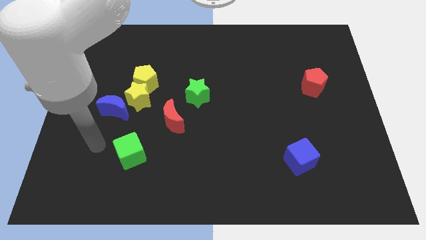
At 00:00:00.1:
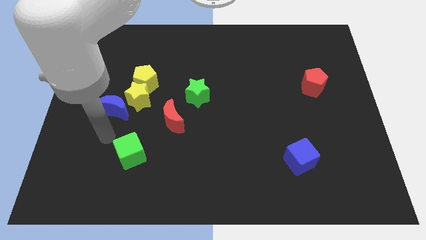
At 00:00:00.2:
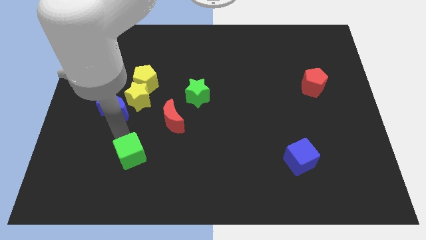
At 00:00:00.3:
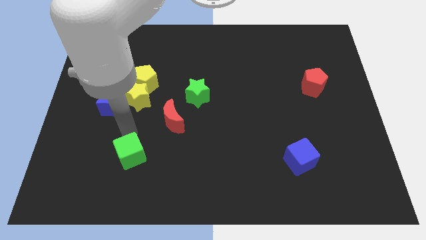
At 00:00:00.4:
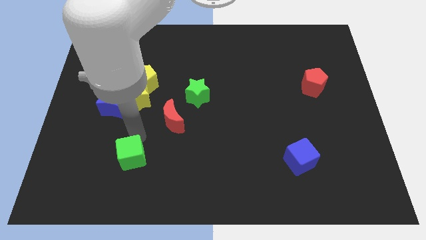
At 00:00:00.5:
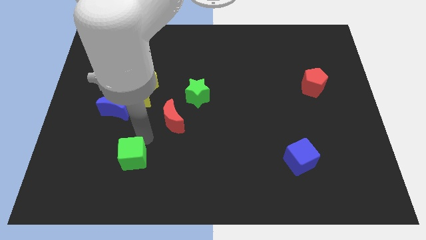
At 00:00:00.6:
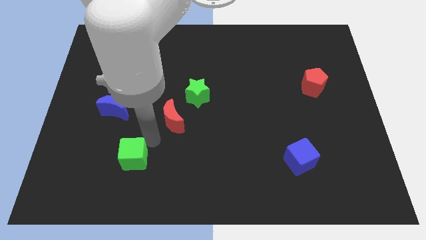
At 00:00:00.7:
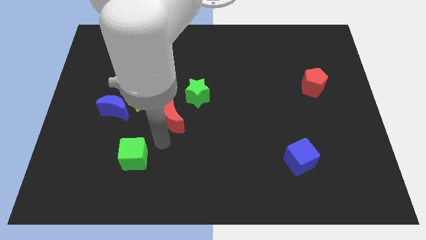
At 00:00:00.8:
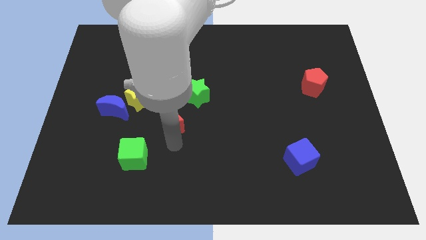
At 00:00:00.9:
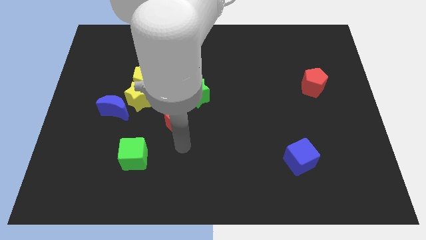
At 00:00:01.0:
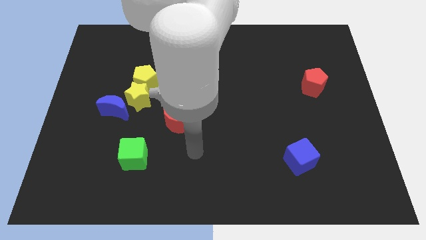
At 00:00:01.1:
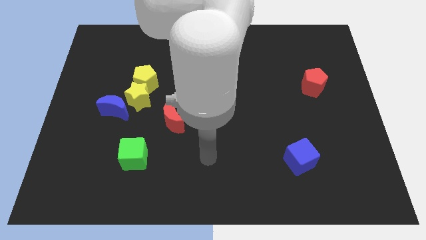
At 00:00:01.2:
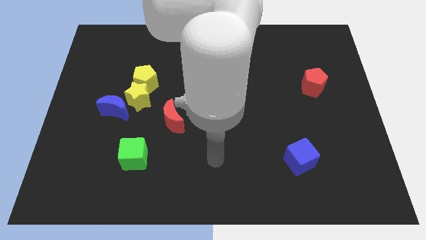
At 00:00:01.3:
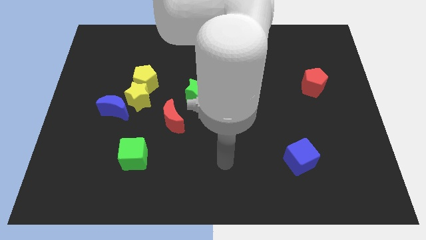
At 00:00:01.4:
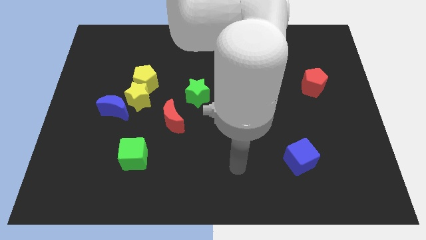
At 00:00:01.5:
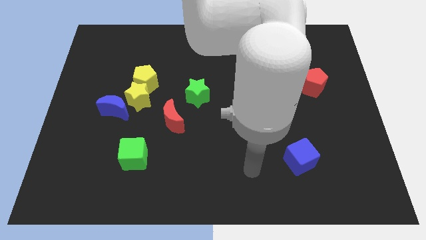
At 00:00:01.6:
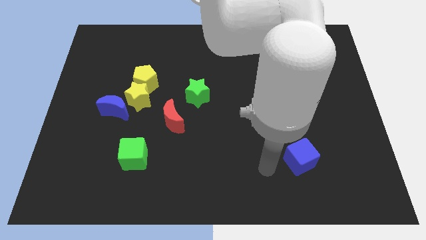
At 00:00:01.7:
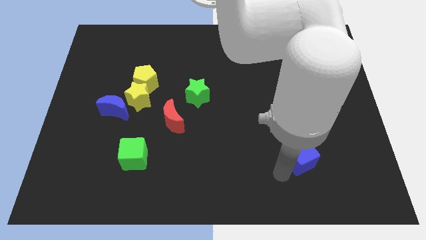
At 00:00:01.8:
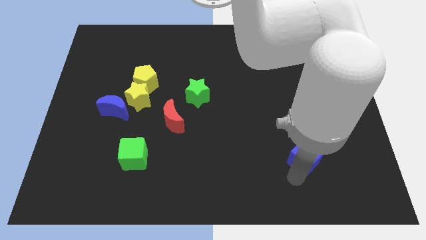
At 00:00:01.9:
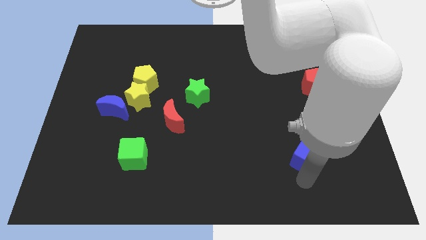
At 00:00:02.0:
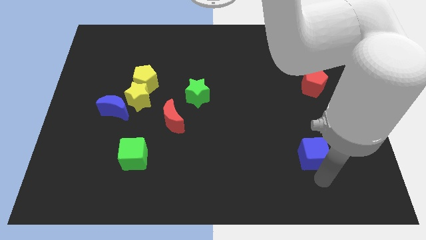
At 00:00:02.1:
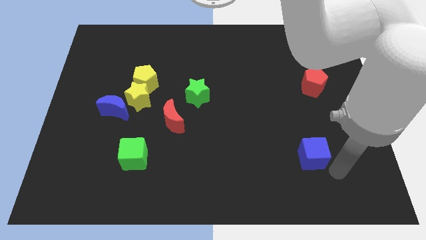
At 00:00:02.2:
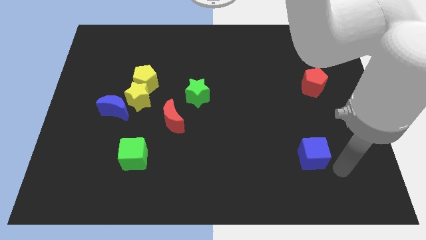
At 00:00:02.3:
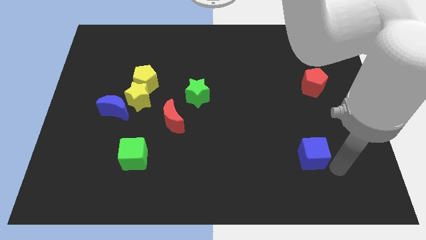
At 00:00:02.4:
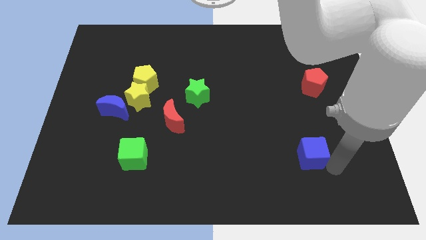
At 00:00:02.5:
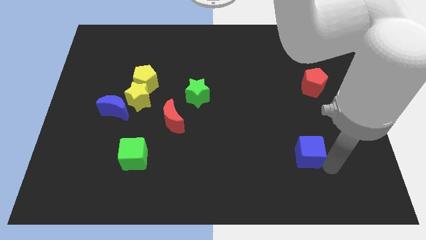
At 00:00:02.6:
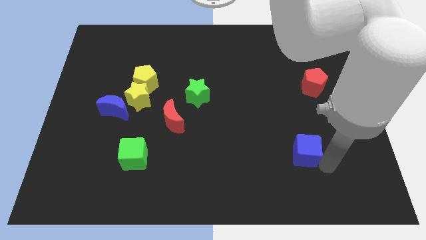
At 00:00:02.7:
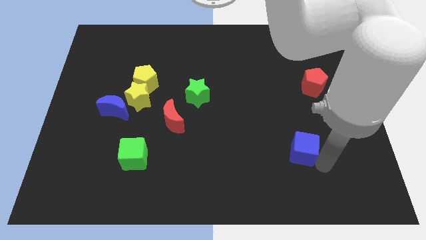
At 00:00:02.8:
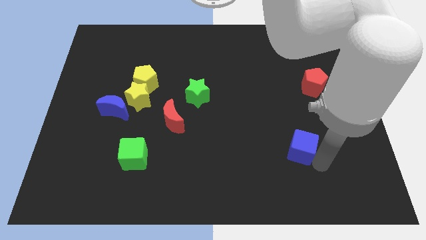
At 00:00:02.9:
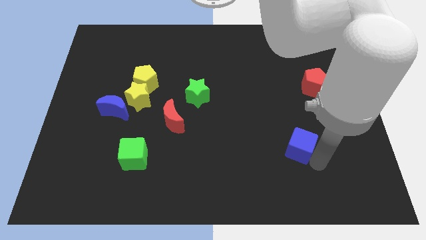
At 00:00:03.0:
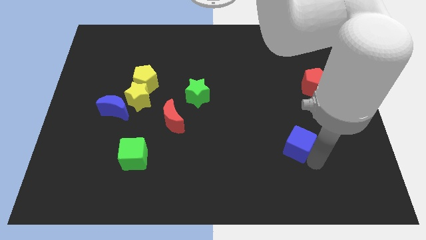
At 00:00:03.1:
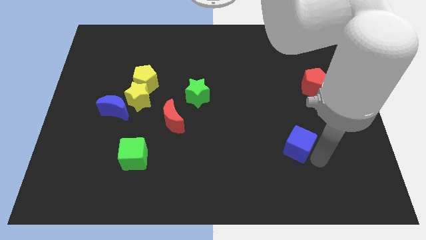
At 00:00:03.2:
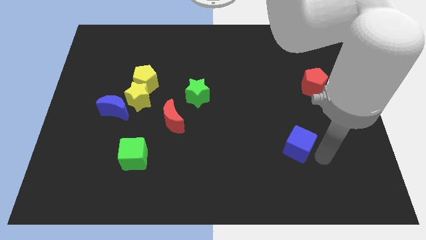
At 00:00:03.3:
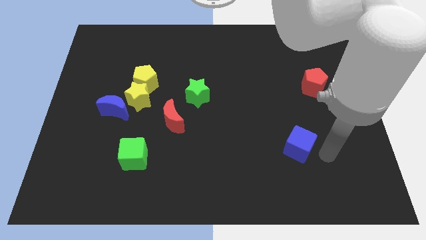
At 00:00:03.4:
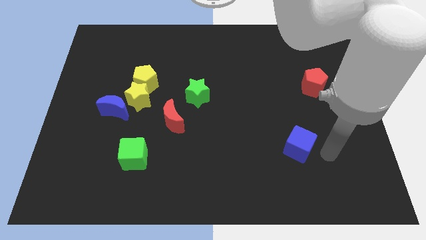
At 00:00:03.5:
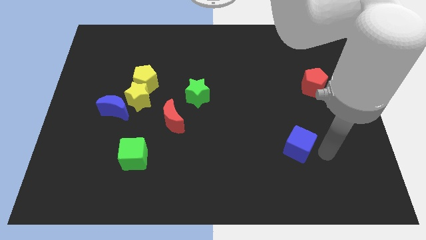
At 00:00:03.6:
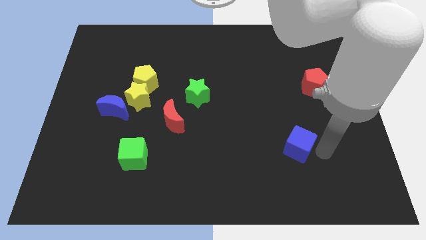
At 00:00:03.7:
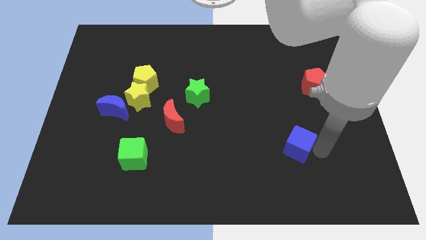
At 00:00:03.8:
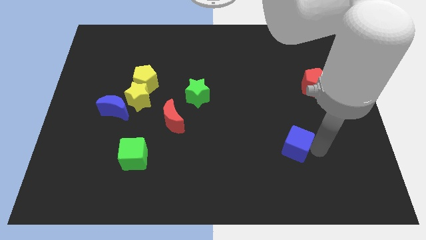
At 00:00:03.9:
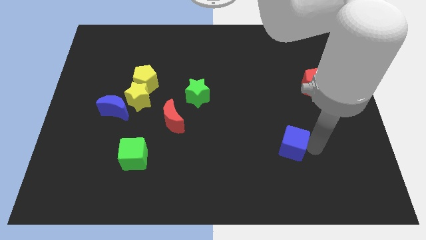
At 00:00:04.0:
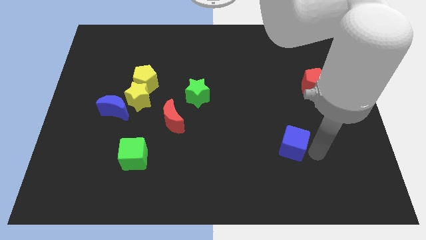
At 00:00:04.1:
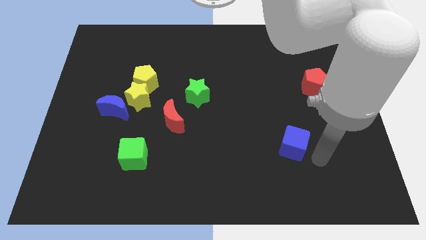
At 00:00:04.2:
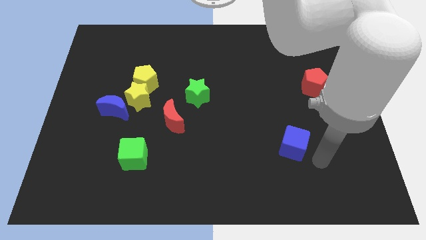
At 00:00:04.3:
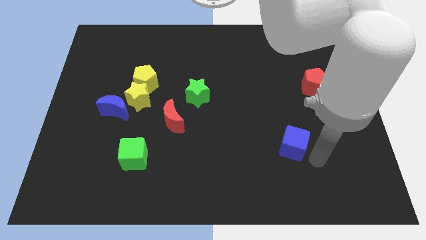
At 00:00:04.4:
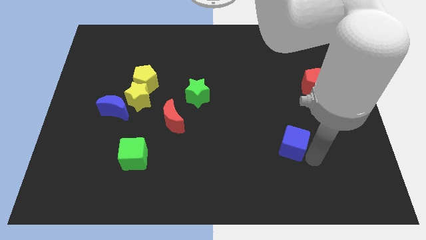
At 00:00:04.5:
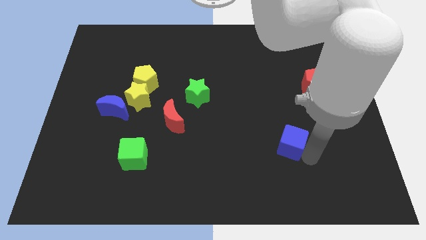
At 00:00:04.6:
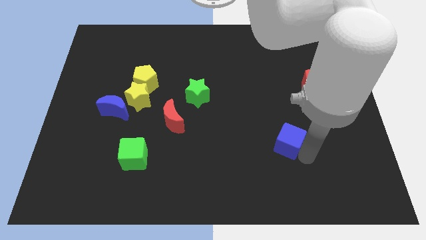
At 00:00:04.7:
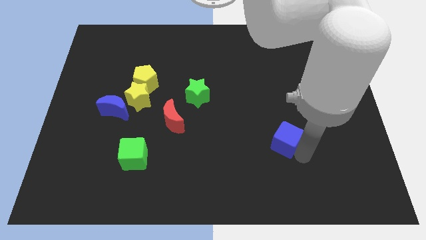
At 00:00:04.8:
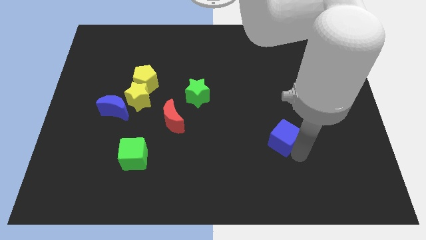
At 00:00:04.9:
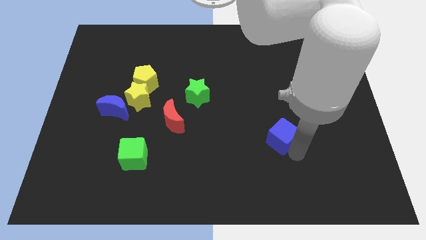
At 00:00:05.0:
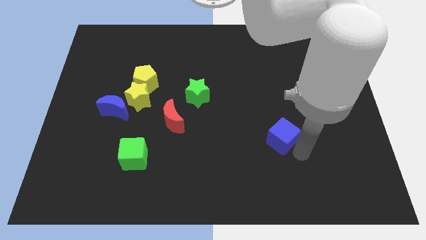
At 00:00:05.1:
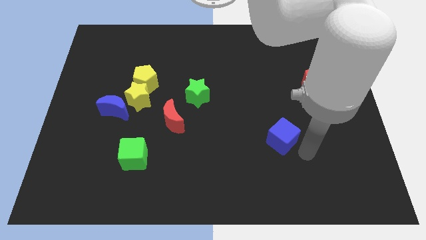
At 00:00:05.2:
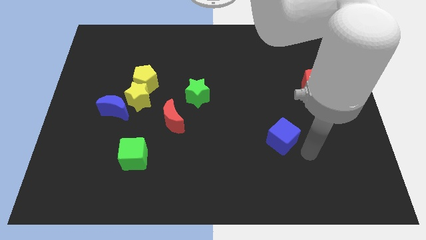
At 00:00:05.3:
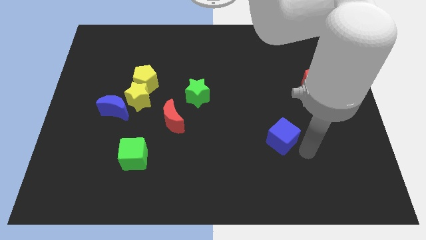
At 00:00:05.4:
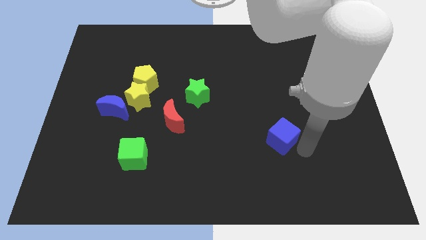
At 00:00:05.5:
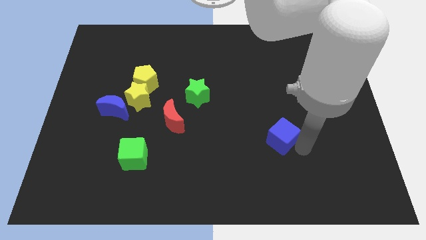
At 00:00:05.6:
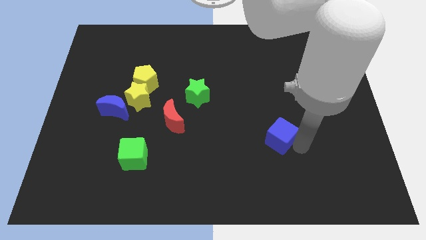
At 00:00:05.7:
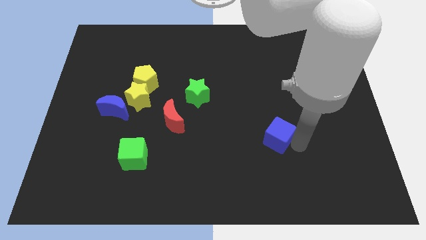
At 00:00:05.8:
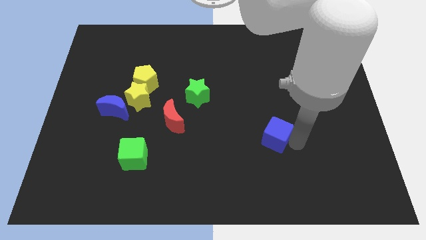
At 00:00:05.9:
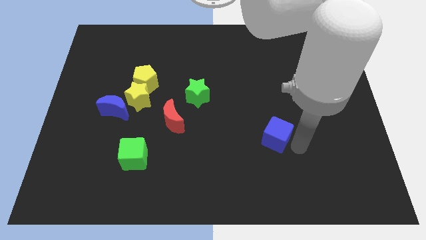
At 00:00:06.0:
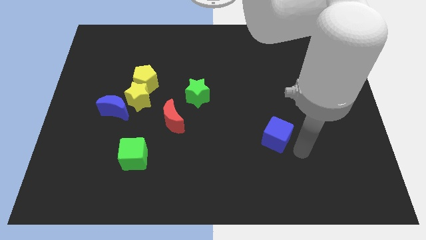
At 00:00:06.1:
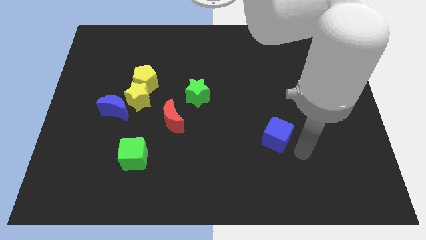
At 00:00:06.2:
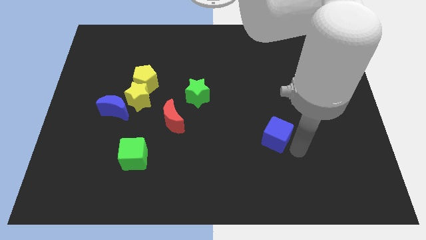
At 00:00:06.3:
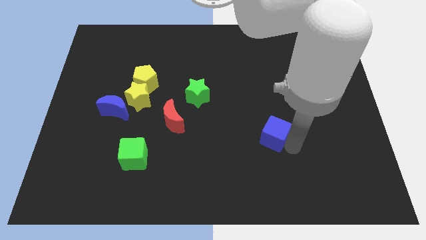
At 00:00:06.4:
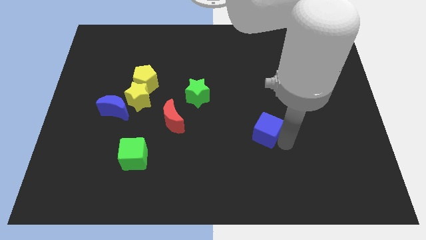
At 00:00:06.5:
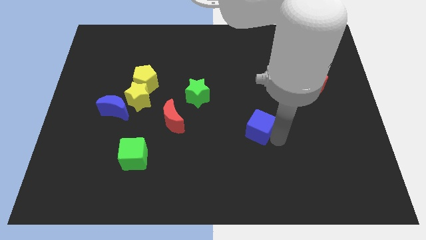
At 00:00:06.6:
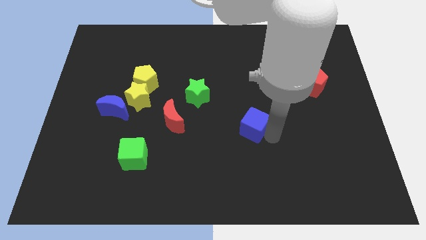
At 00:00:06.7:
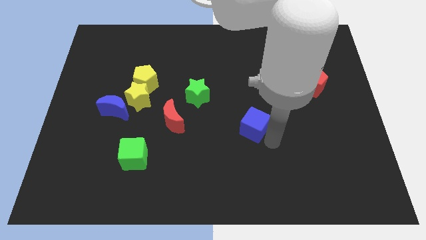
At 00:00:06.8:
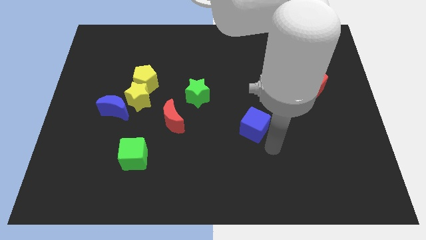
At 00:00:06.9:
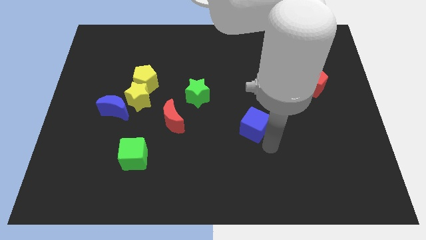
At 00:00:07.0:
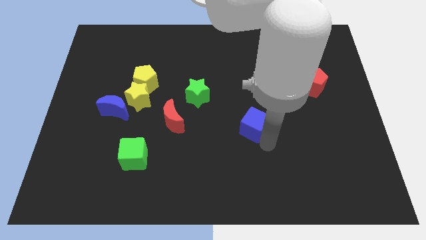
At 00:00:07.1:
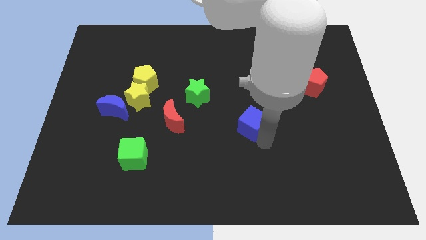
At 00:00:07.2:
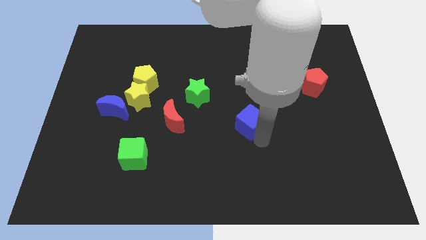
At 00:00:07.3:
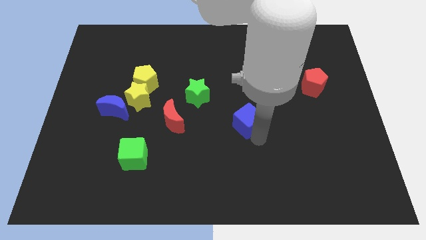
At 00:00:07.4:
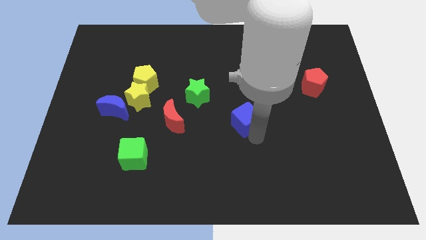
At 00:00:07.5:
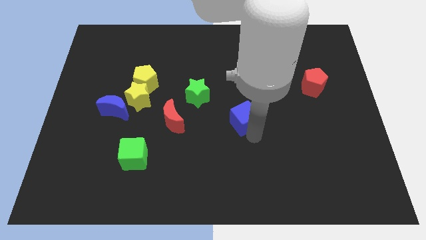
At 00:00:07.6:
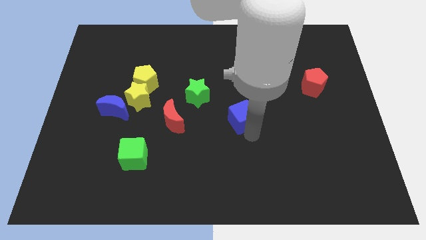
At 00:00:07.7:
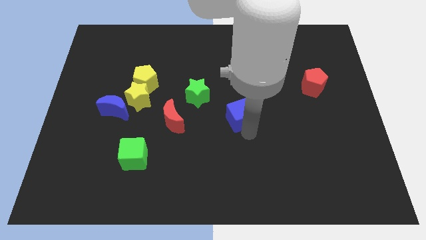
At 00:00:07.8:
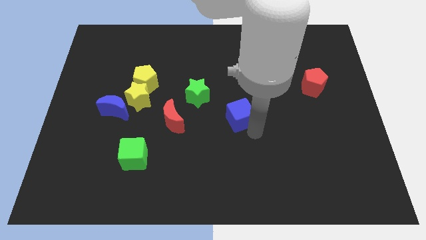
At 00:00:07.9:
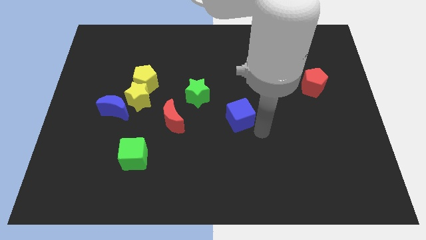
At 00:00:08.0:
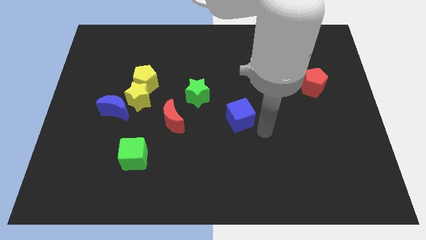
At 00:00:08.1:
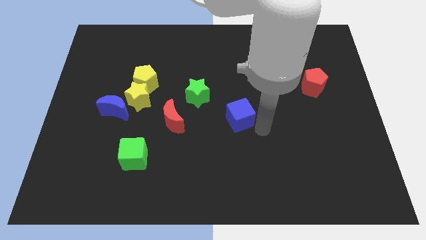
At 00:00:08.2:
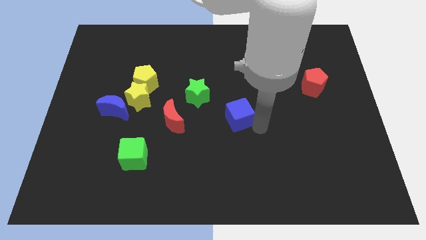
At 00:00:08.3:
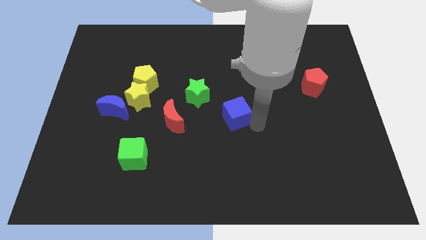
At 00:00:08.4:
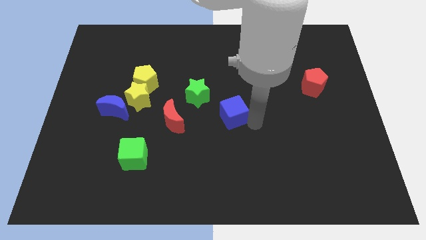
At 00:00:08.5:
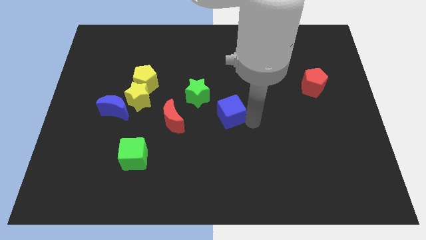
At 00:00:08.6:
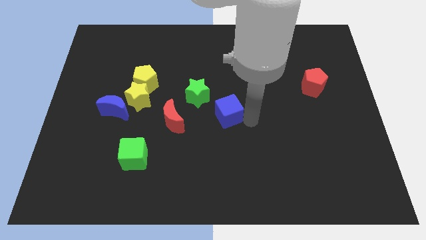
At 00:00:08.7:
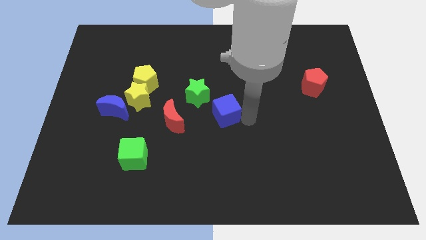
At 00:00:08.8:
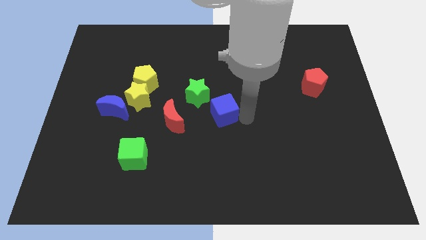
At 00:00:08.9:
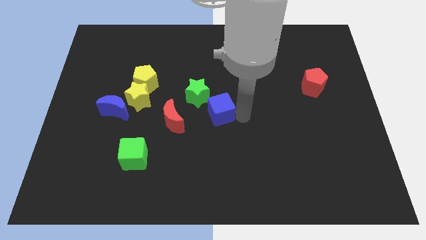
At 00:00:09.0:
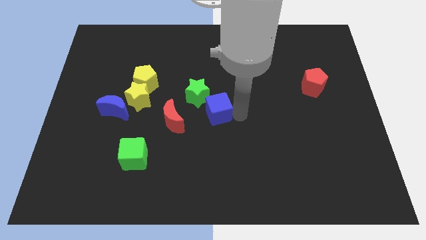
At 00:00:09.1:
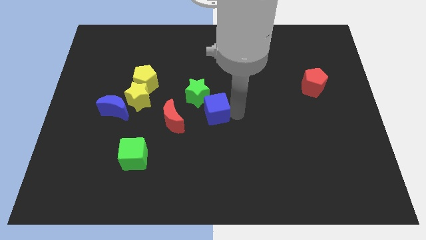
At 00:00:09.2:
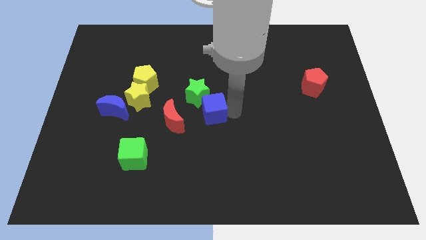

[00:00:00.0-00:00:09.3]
push the blue cube close to the green star
